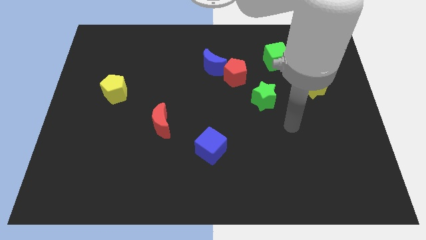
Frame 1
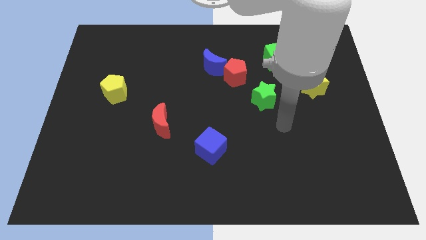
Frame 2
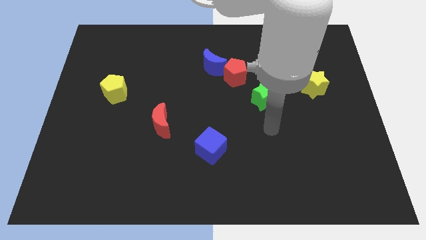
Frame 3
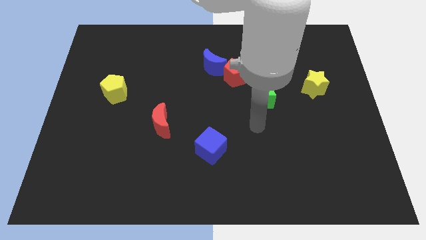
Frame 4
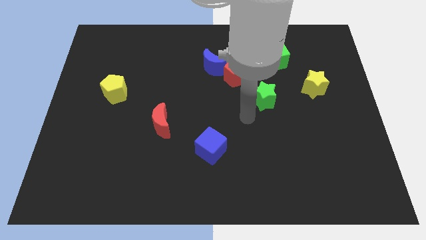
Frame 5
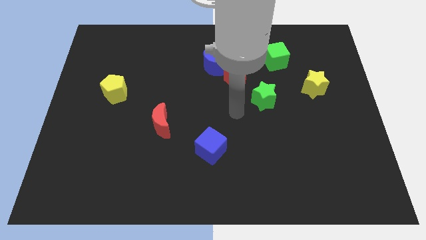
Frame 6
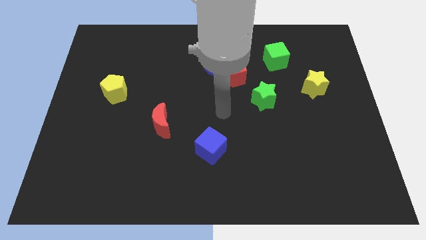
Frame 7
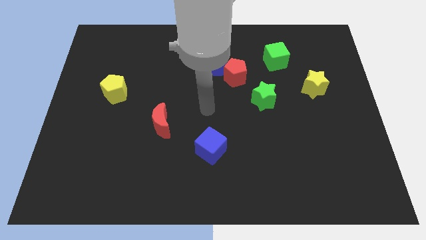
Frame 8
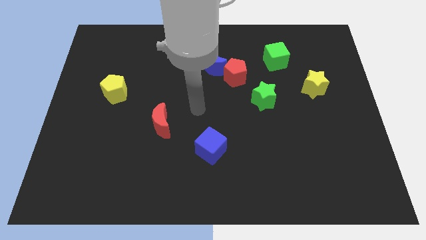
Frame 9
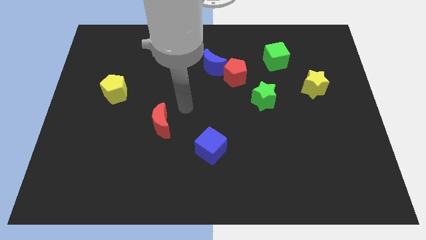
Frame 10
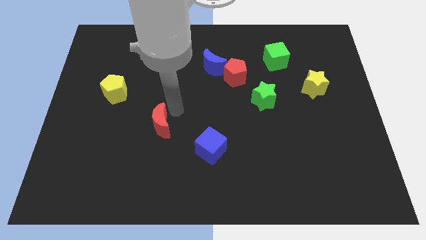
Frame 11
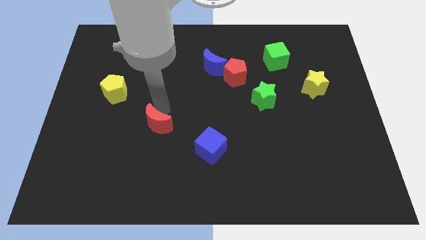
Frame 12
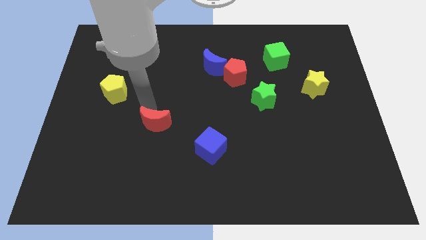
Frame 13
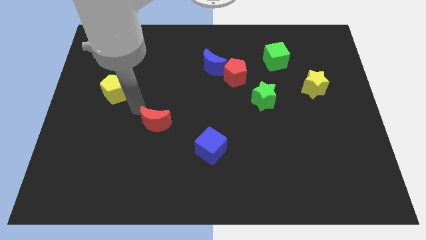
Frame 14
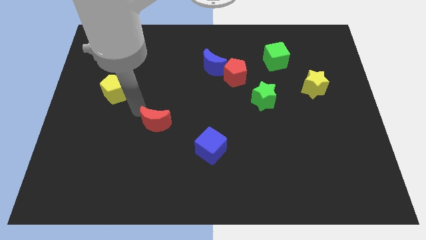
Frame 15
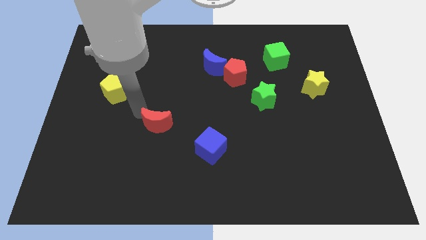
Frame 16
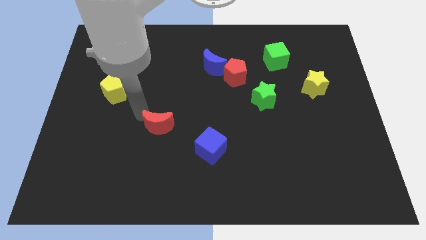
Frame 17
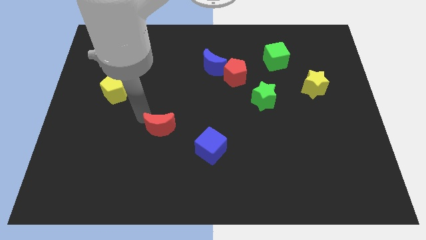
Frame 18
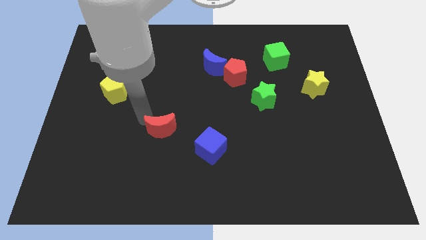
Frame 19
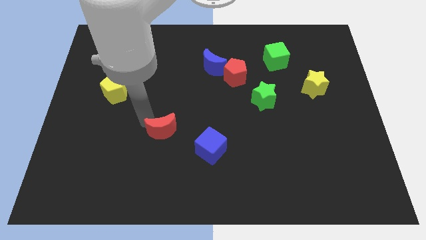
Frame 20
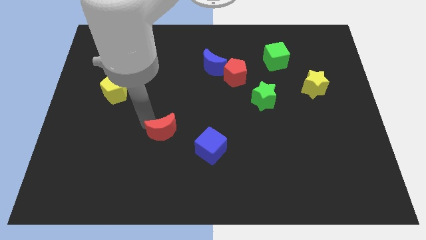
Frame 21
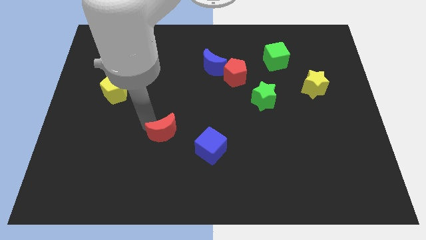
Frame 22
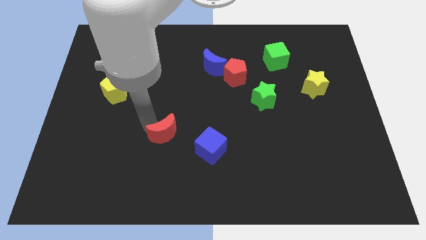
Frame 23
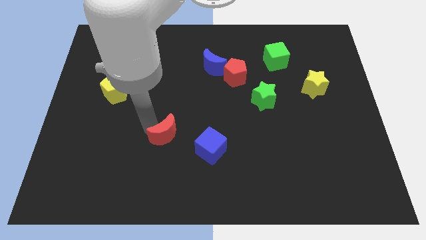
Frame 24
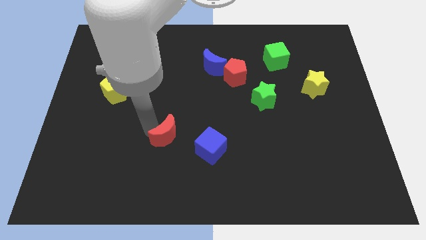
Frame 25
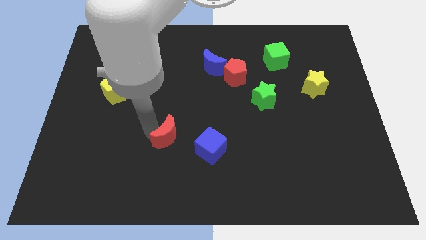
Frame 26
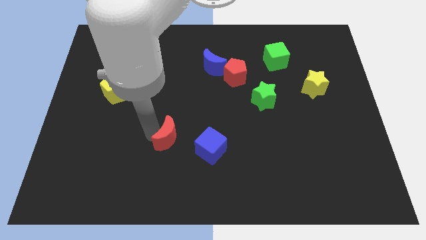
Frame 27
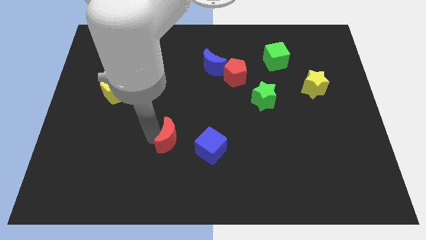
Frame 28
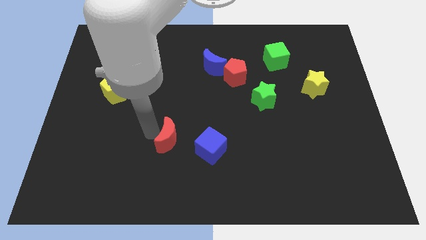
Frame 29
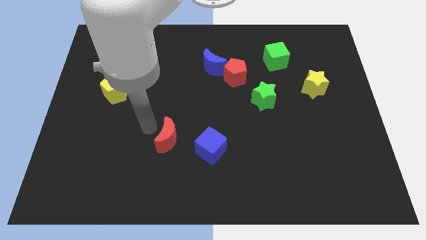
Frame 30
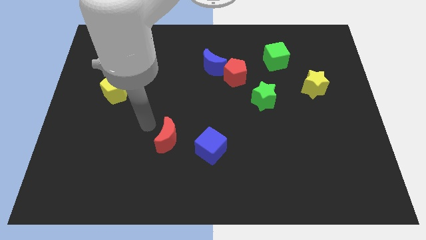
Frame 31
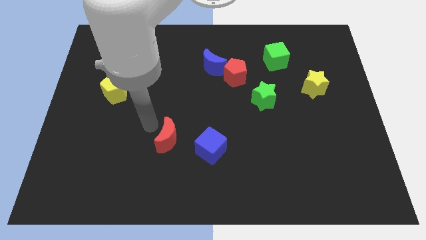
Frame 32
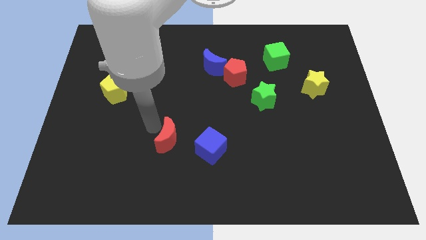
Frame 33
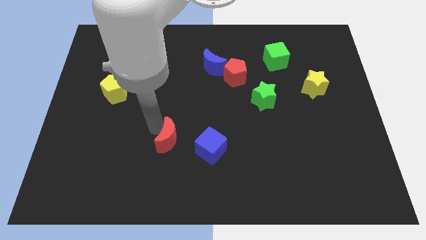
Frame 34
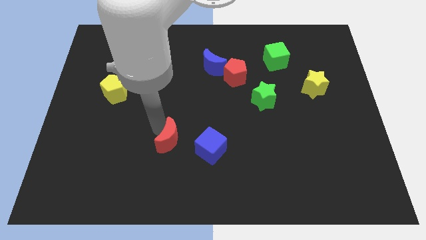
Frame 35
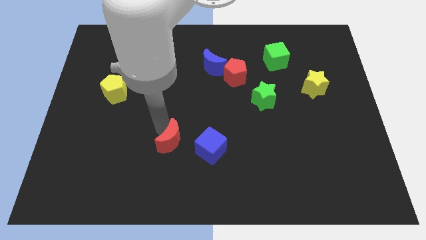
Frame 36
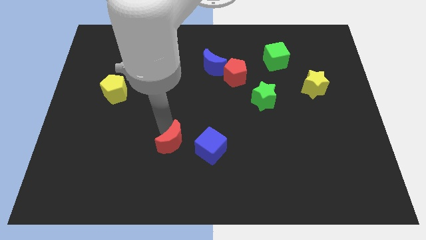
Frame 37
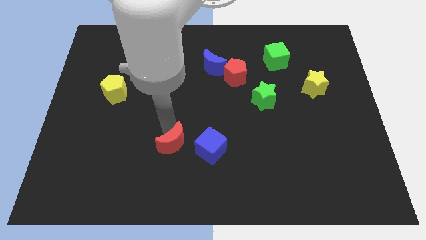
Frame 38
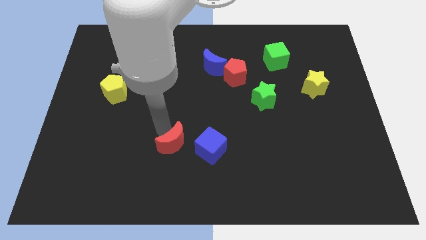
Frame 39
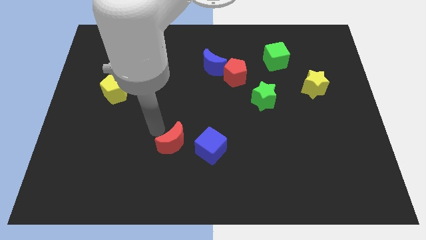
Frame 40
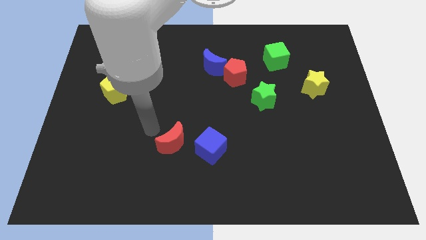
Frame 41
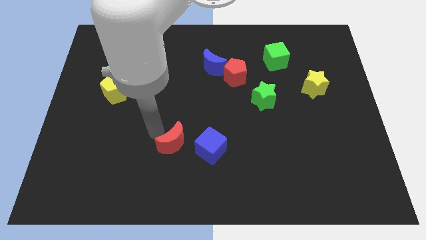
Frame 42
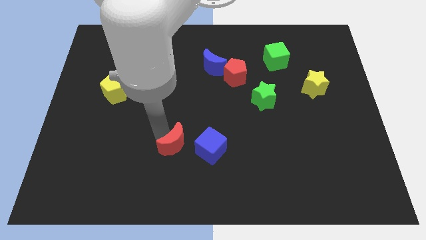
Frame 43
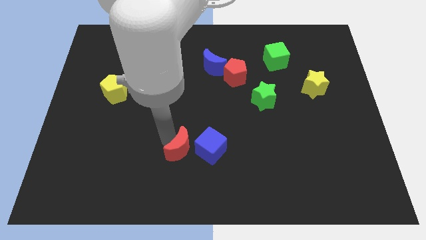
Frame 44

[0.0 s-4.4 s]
slightly push the red moon down and then to the right

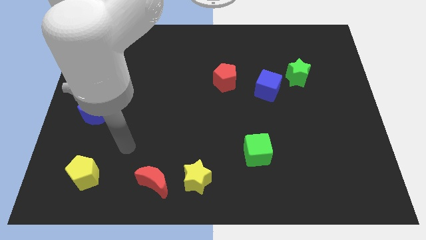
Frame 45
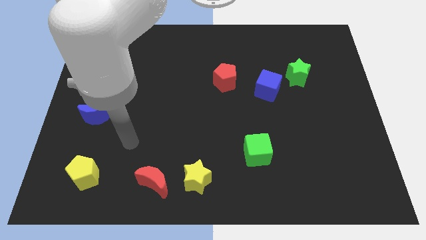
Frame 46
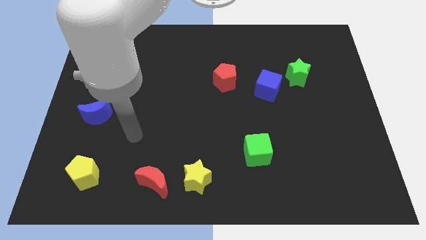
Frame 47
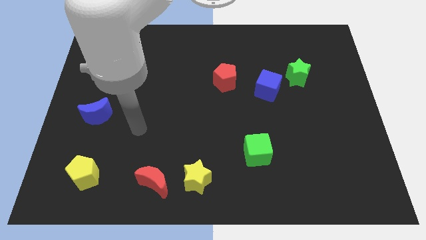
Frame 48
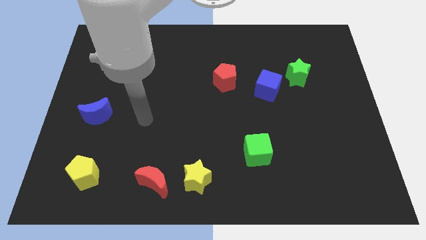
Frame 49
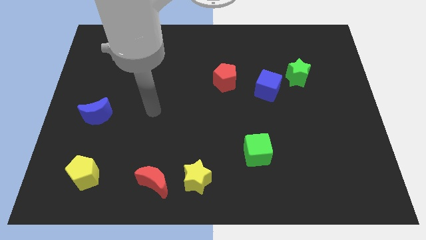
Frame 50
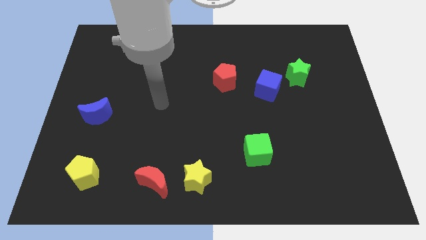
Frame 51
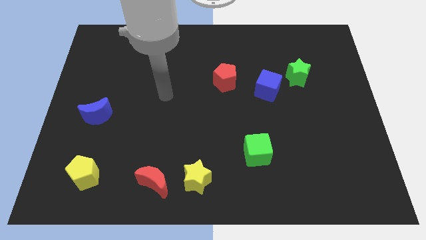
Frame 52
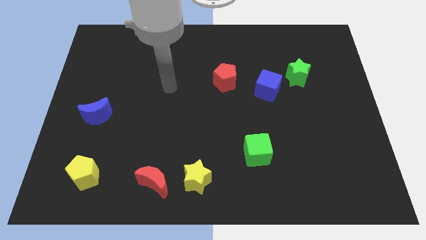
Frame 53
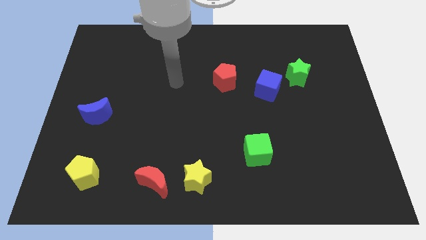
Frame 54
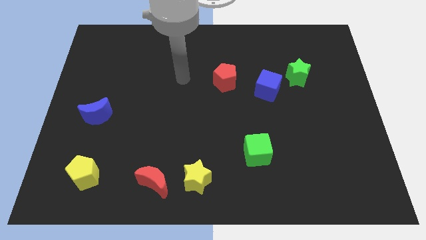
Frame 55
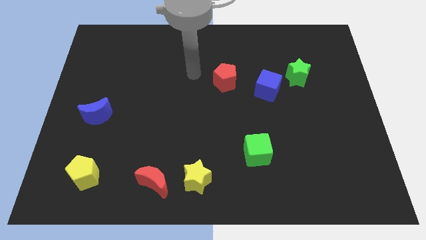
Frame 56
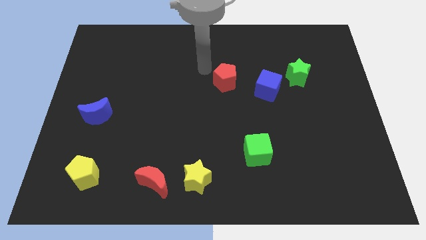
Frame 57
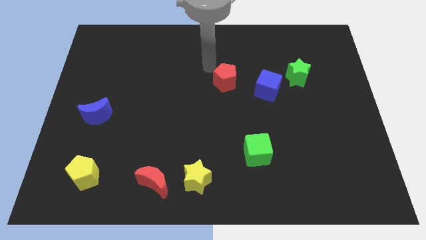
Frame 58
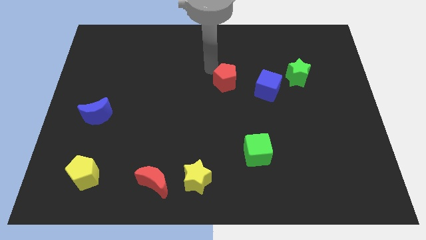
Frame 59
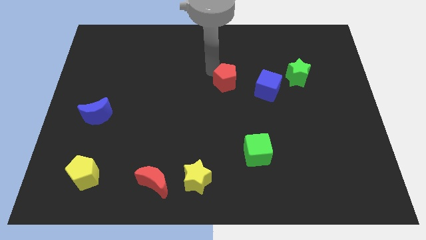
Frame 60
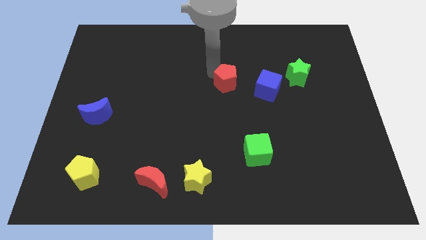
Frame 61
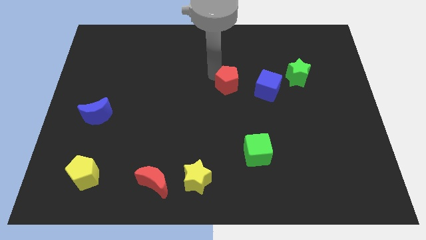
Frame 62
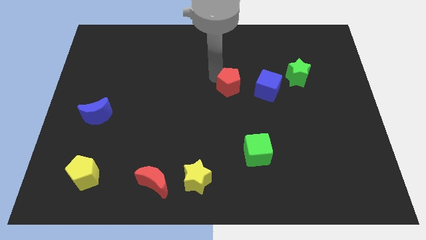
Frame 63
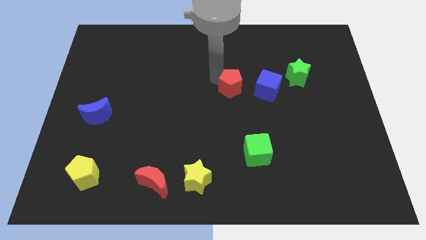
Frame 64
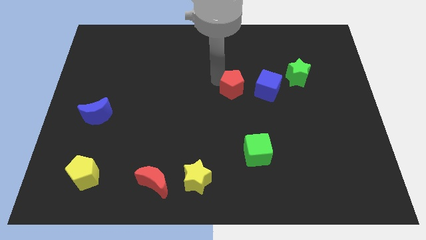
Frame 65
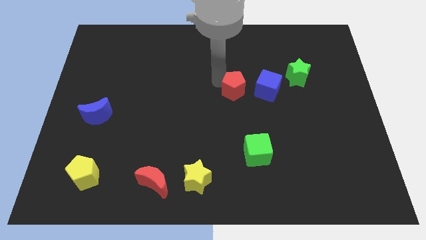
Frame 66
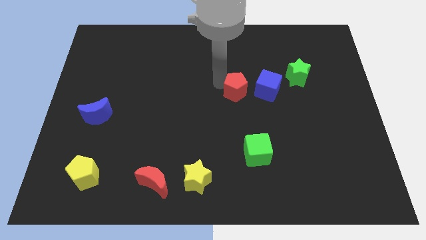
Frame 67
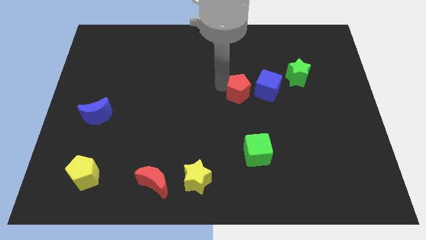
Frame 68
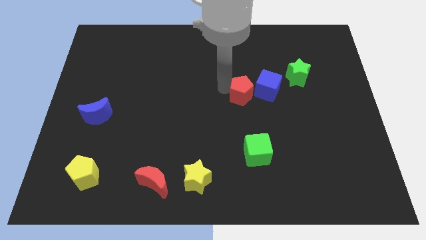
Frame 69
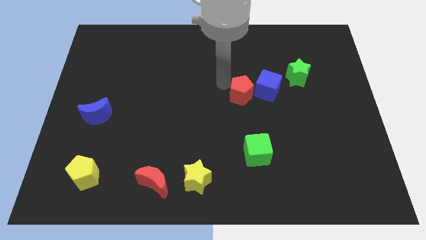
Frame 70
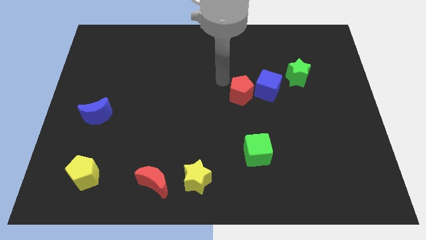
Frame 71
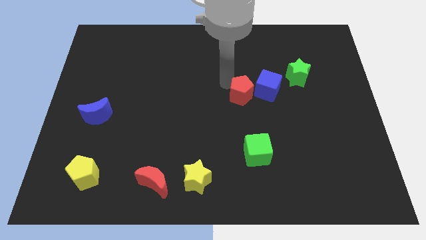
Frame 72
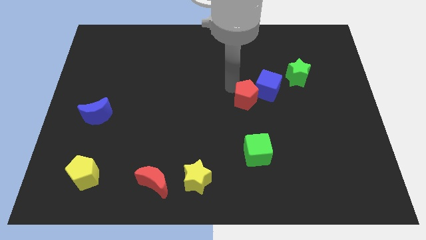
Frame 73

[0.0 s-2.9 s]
slightly push the red pentagon diagonally downwards and right

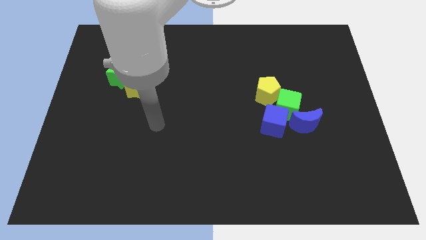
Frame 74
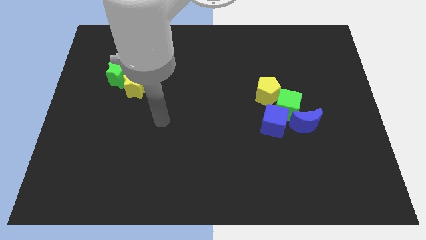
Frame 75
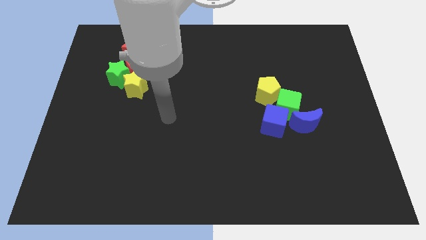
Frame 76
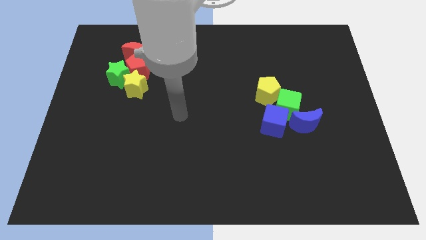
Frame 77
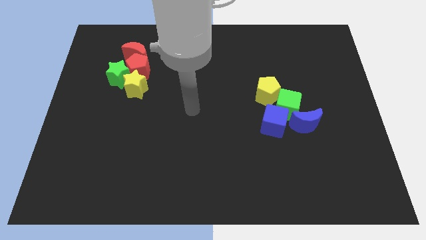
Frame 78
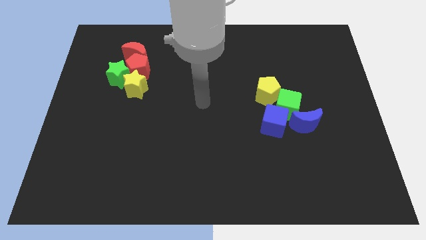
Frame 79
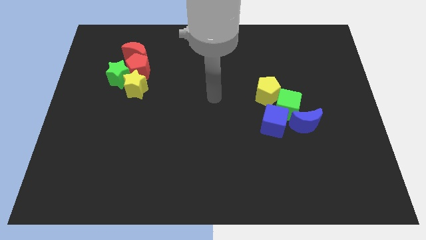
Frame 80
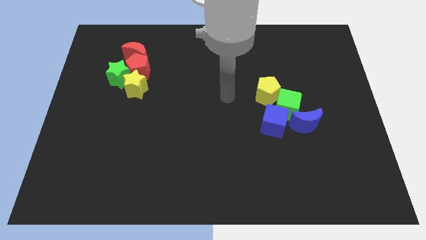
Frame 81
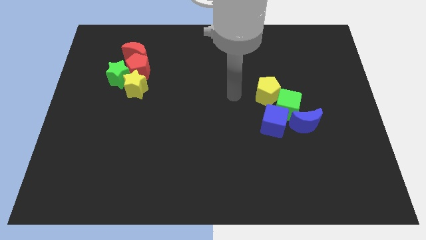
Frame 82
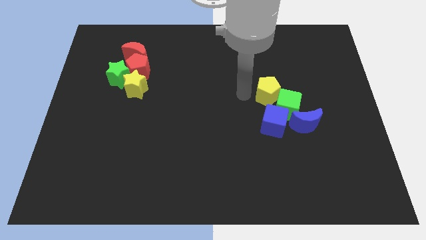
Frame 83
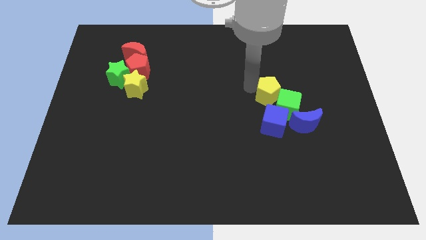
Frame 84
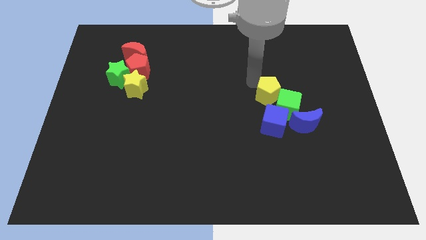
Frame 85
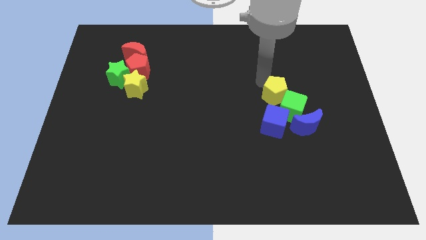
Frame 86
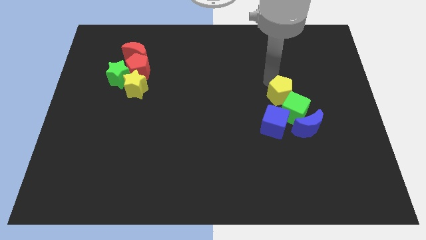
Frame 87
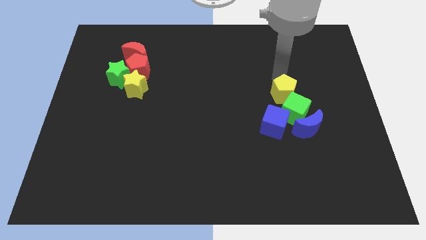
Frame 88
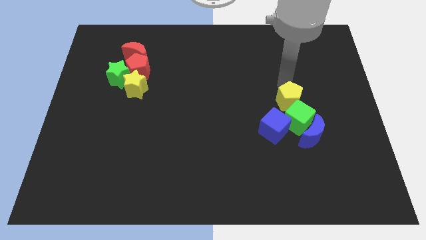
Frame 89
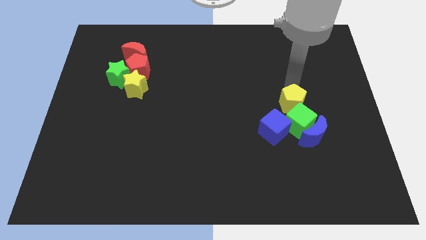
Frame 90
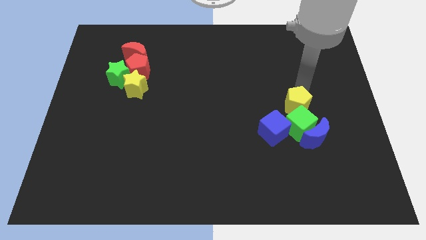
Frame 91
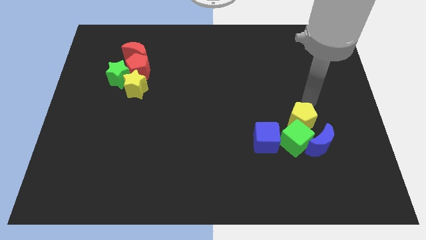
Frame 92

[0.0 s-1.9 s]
slide the green cube a little downwards
